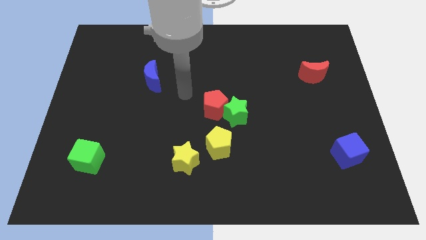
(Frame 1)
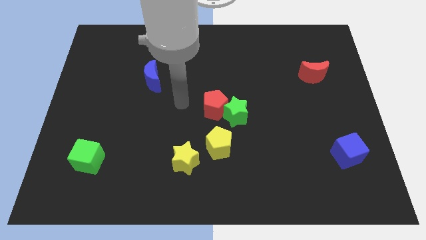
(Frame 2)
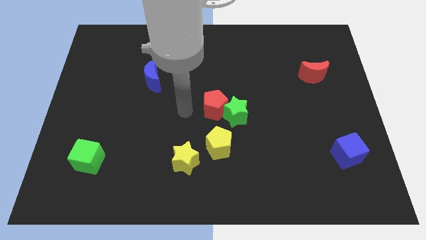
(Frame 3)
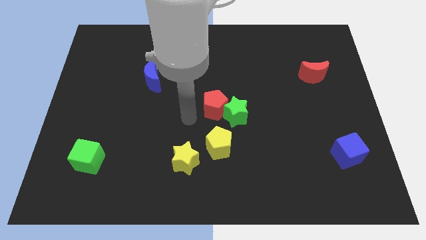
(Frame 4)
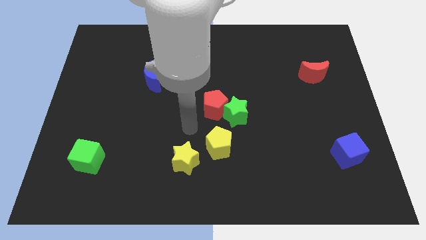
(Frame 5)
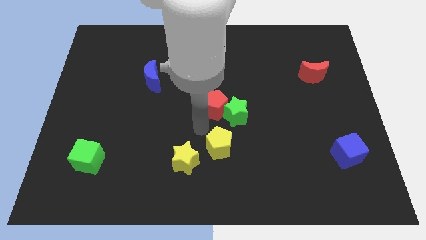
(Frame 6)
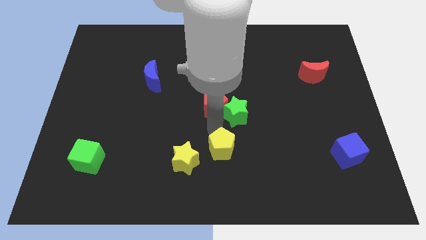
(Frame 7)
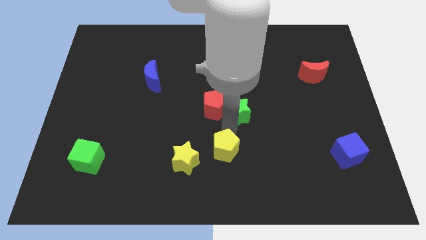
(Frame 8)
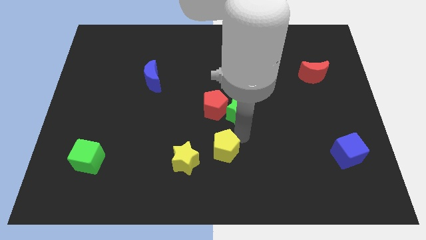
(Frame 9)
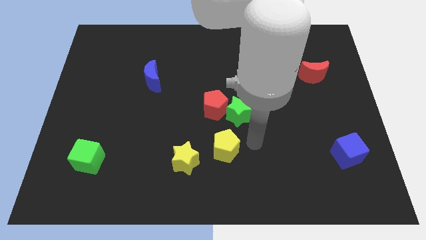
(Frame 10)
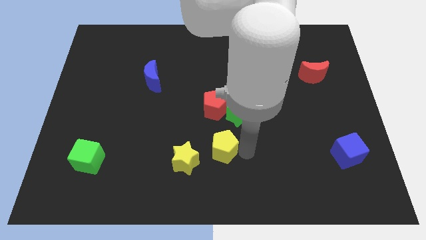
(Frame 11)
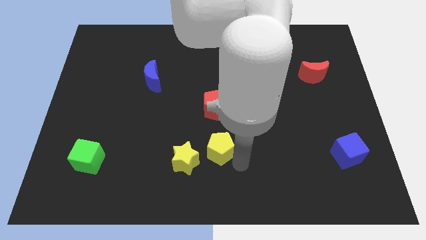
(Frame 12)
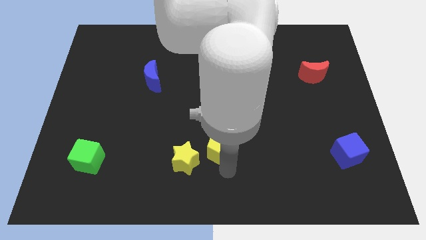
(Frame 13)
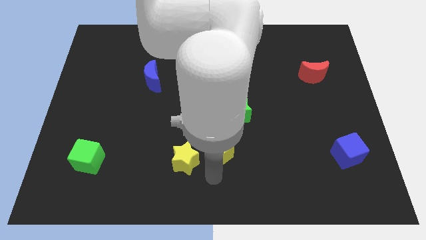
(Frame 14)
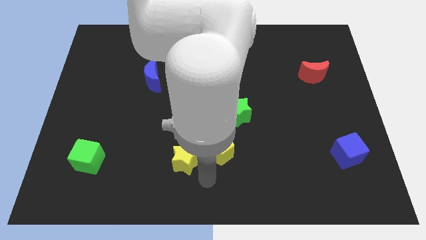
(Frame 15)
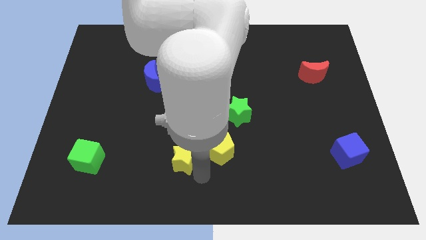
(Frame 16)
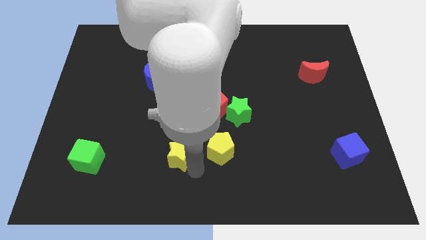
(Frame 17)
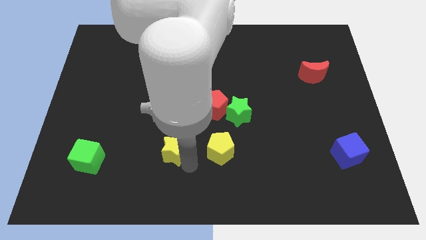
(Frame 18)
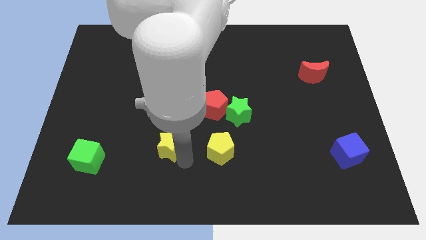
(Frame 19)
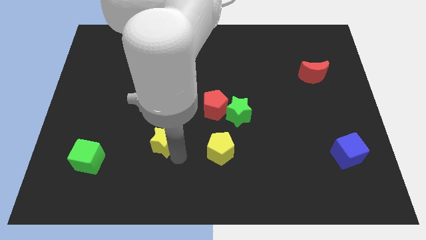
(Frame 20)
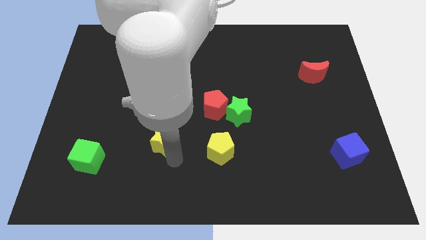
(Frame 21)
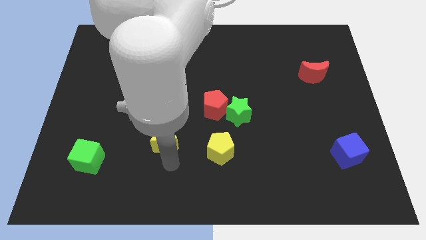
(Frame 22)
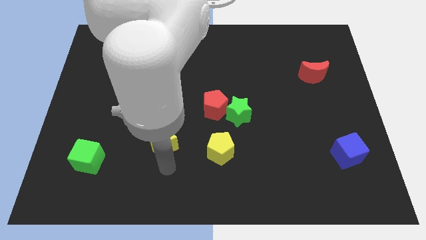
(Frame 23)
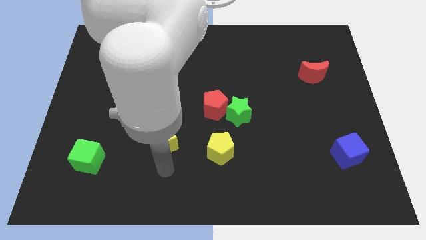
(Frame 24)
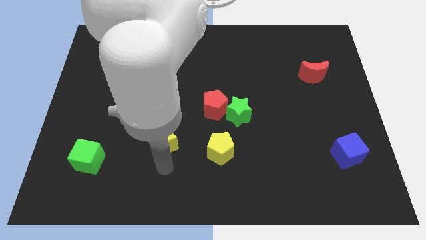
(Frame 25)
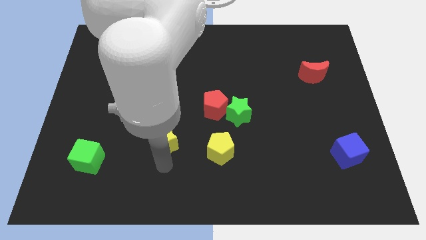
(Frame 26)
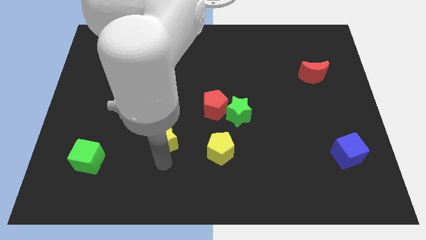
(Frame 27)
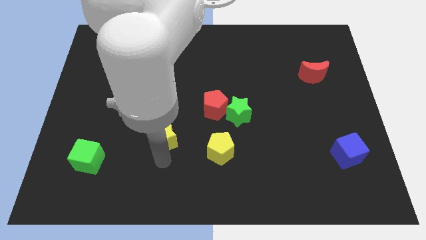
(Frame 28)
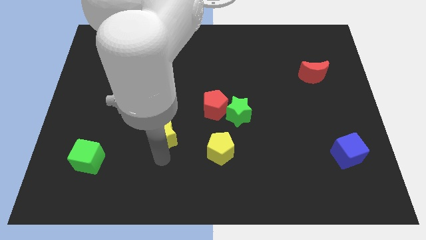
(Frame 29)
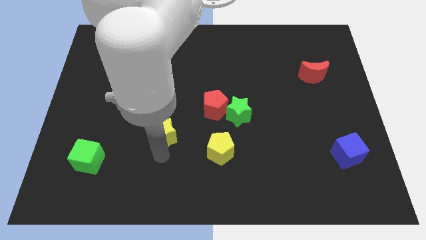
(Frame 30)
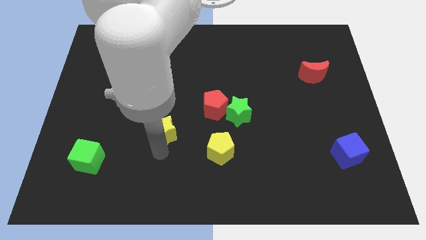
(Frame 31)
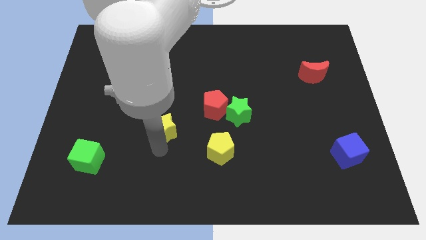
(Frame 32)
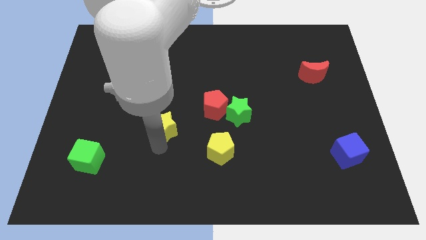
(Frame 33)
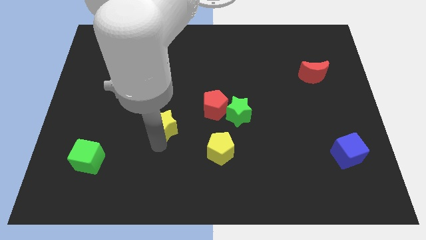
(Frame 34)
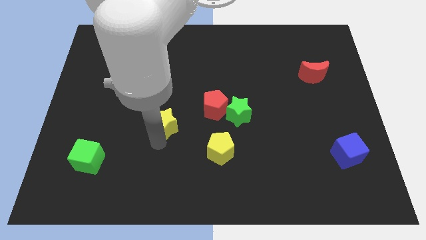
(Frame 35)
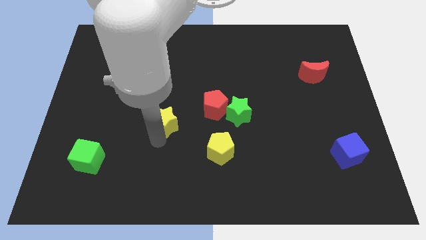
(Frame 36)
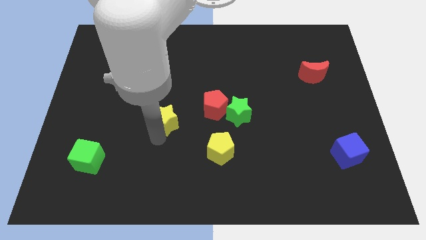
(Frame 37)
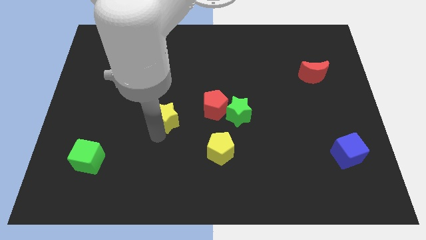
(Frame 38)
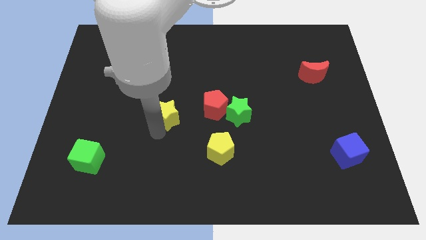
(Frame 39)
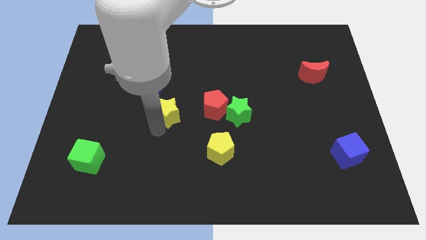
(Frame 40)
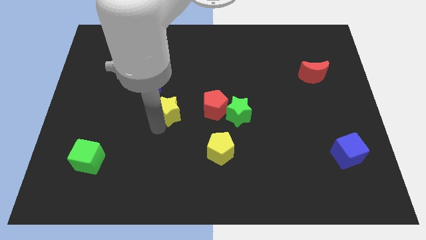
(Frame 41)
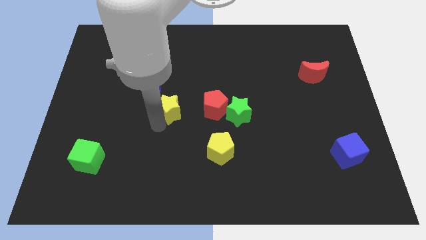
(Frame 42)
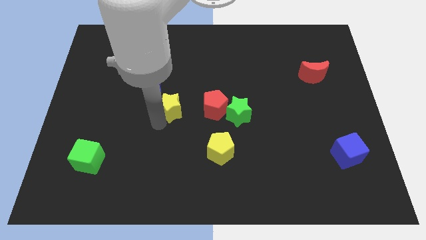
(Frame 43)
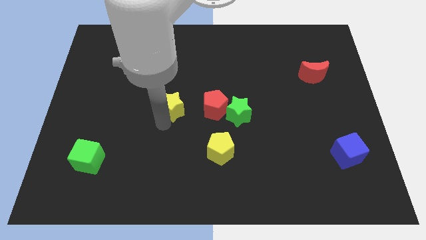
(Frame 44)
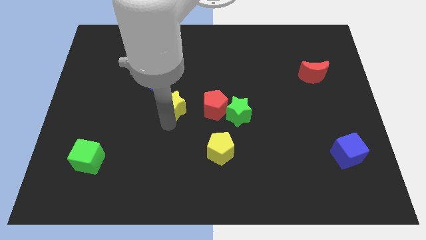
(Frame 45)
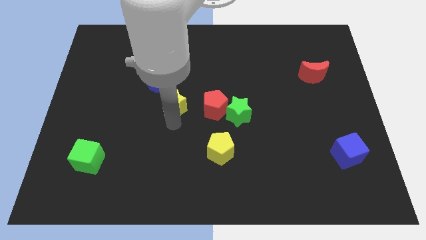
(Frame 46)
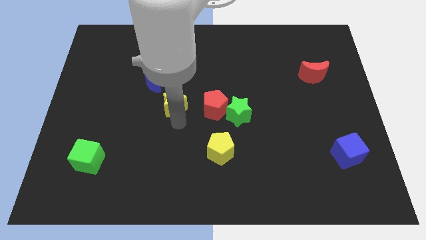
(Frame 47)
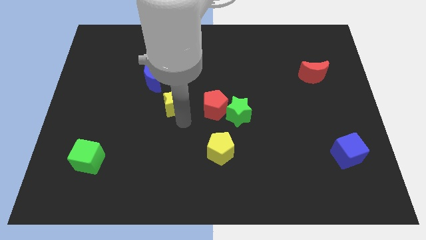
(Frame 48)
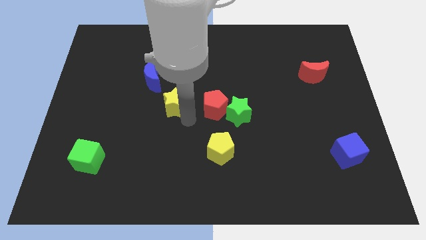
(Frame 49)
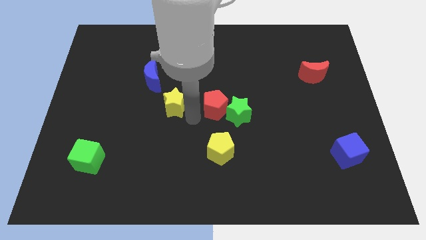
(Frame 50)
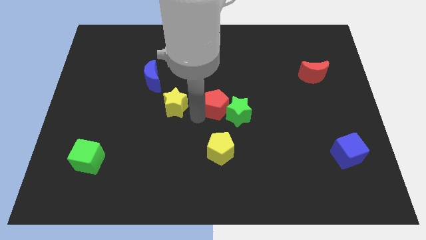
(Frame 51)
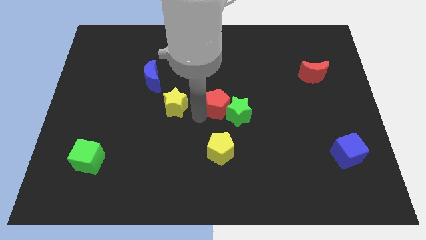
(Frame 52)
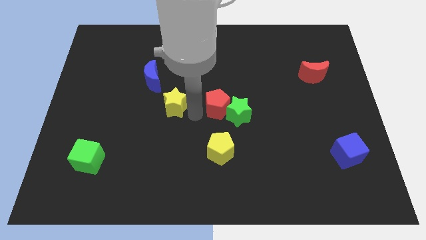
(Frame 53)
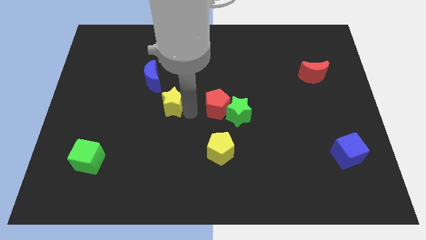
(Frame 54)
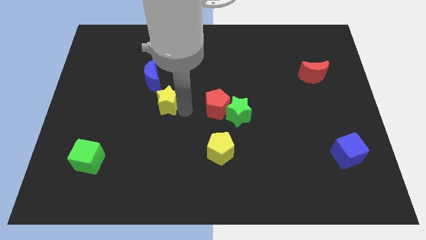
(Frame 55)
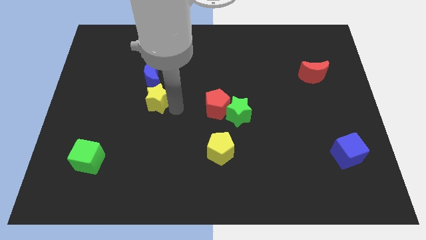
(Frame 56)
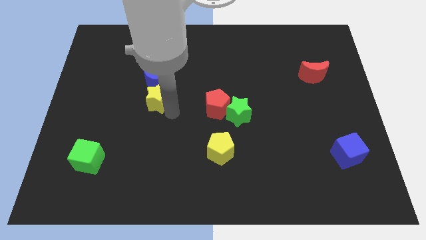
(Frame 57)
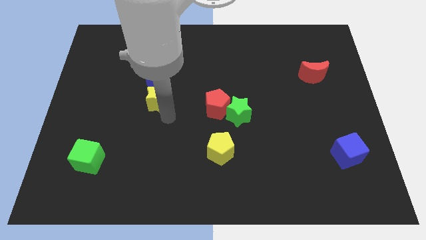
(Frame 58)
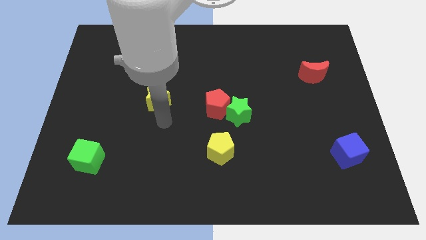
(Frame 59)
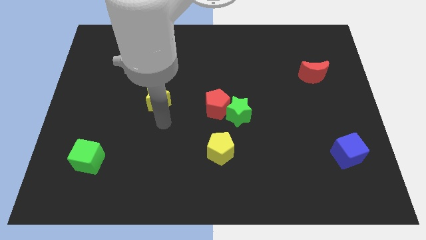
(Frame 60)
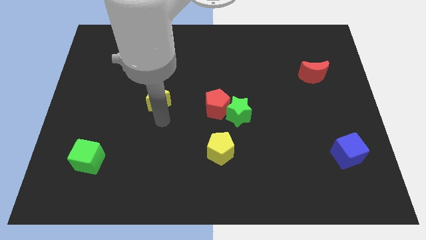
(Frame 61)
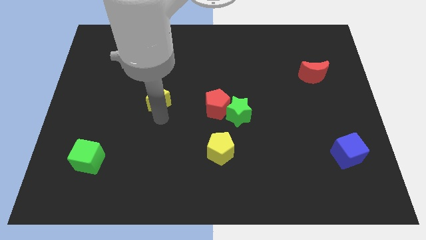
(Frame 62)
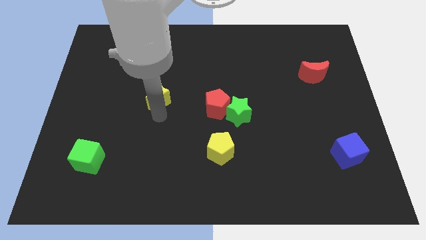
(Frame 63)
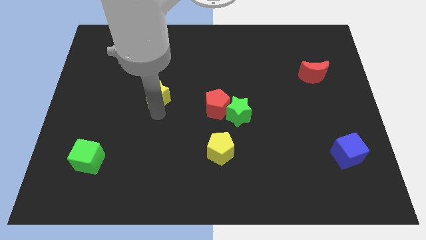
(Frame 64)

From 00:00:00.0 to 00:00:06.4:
move the yellow star towards the blue moon
